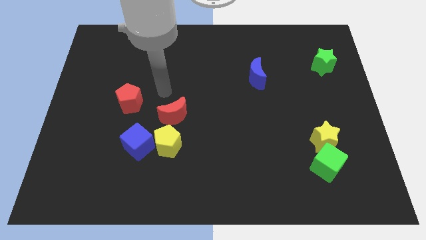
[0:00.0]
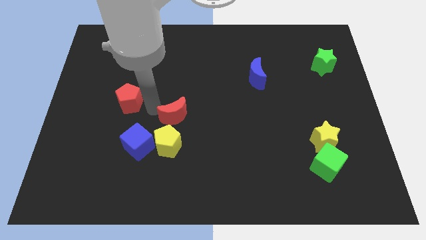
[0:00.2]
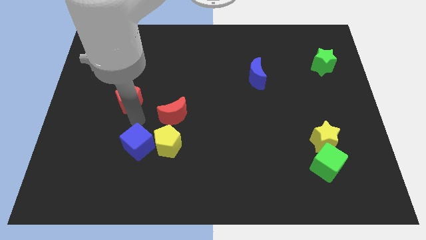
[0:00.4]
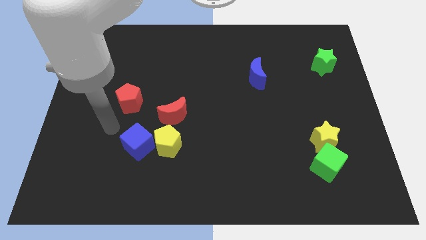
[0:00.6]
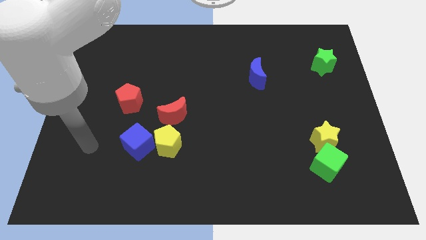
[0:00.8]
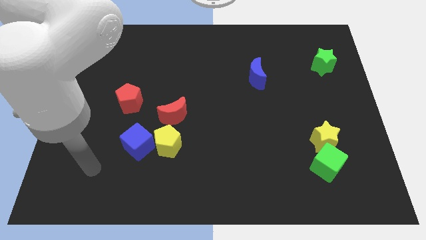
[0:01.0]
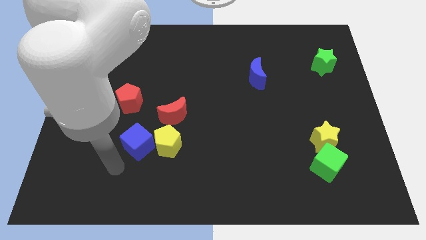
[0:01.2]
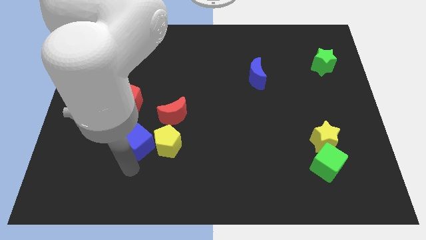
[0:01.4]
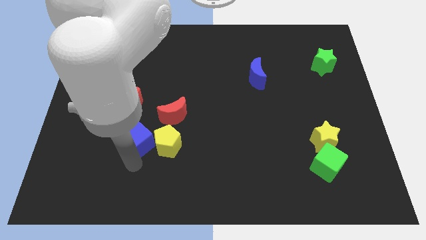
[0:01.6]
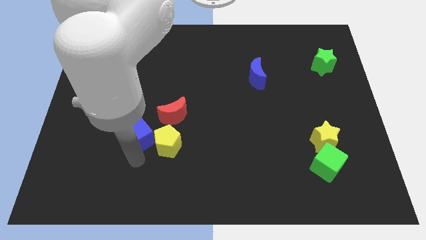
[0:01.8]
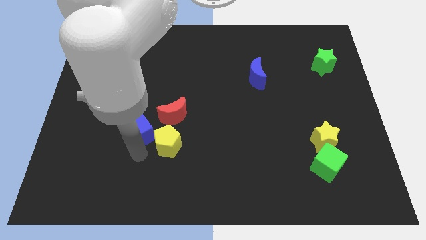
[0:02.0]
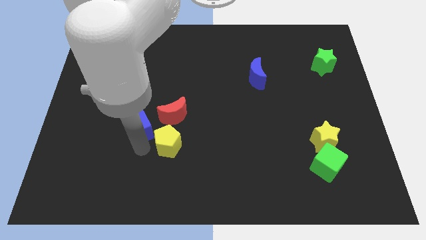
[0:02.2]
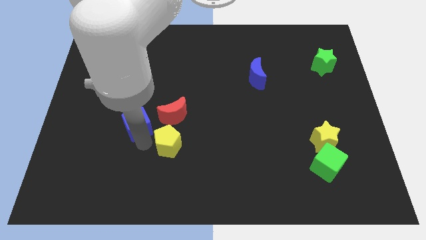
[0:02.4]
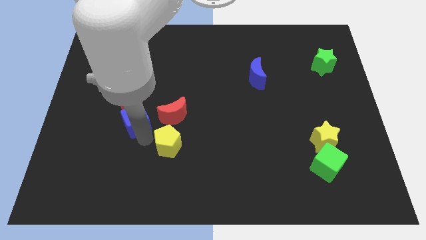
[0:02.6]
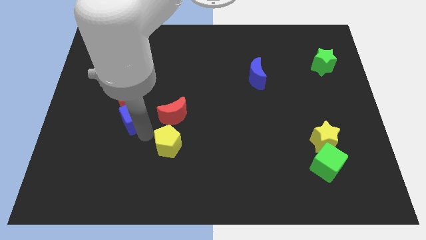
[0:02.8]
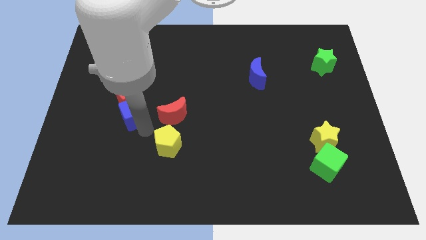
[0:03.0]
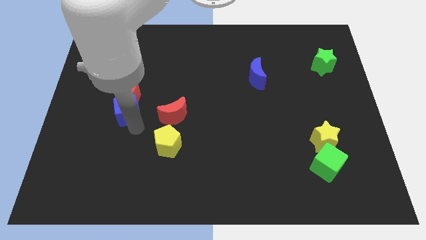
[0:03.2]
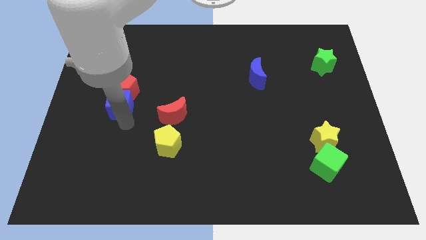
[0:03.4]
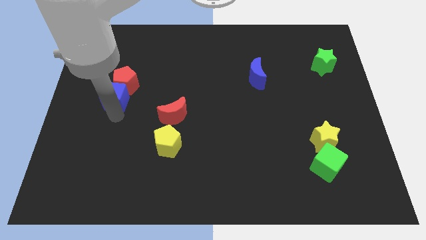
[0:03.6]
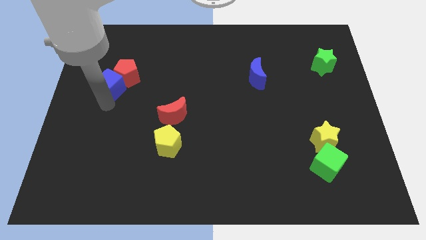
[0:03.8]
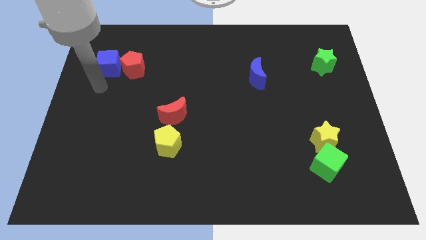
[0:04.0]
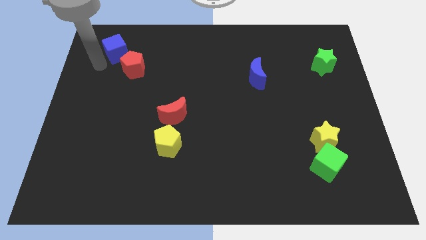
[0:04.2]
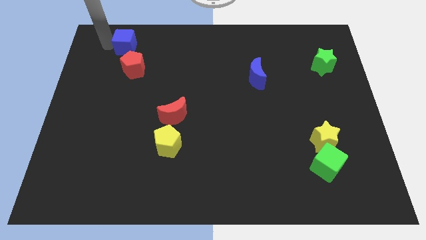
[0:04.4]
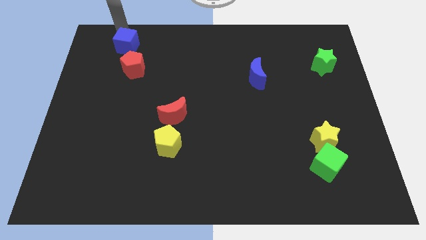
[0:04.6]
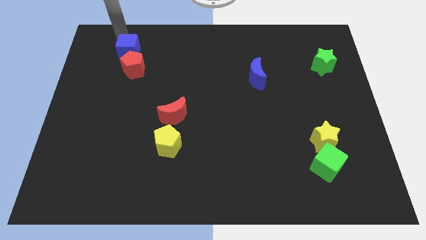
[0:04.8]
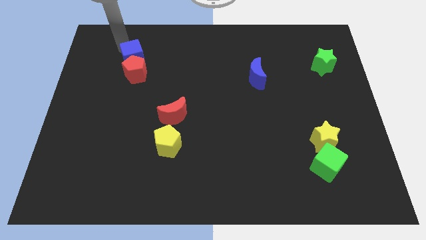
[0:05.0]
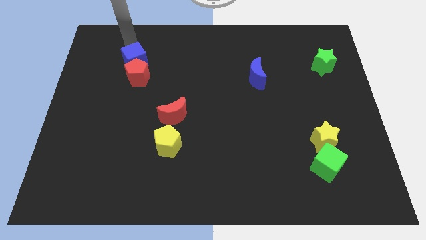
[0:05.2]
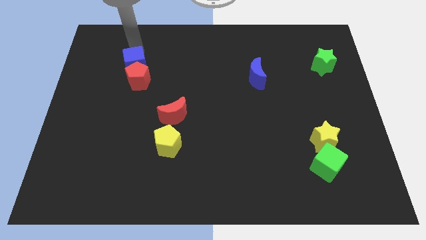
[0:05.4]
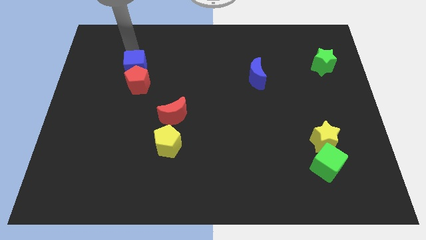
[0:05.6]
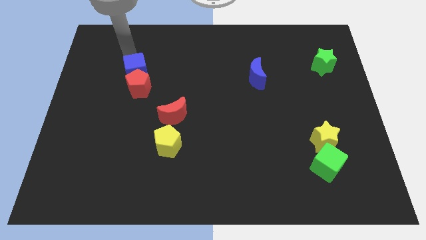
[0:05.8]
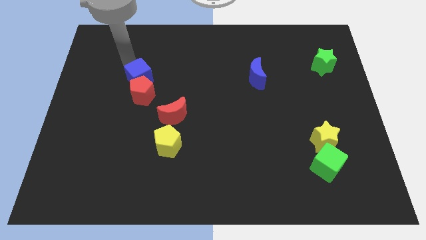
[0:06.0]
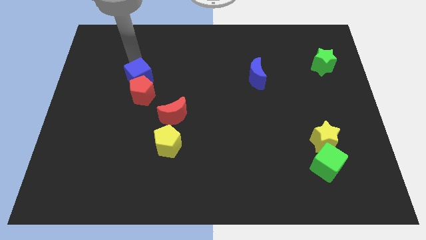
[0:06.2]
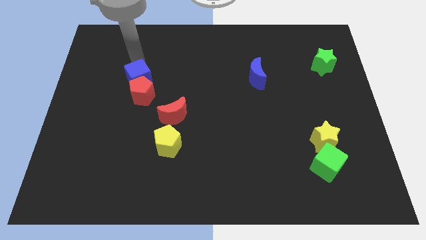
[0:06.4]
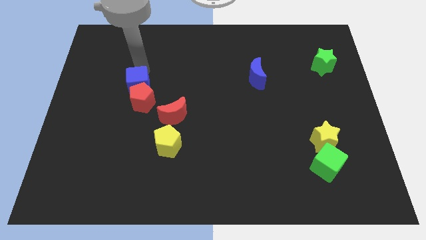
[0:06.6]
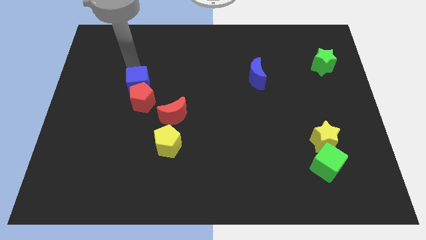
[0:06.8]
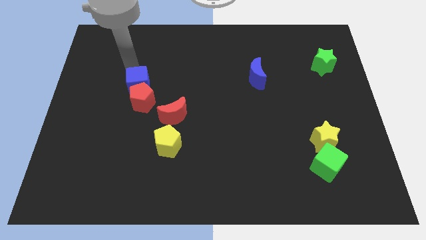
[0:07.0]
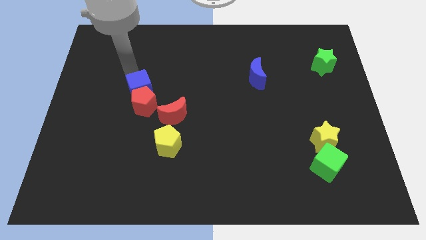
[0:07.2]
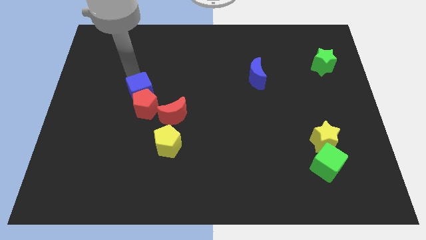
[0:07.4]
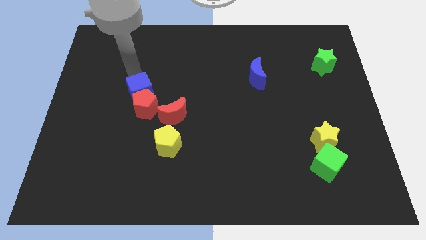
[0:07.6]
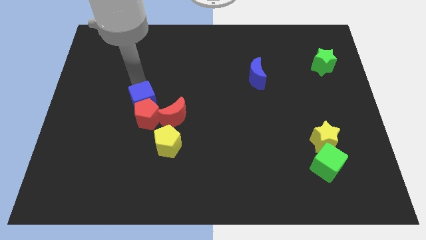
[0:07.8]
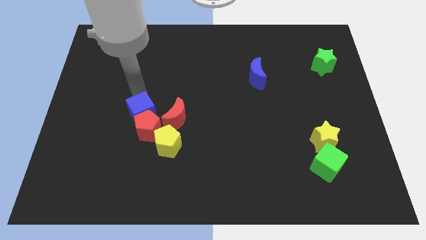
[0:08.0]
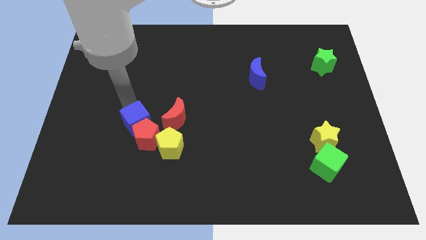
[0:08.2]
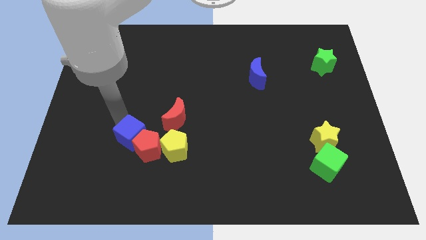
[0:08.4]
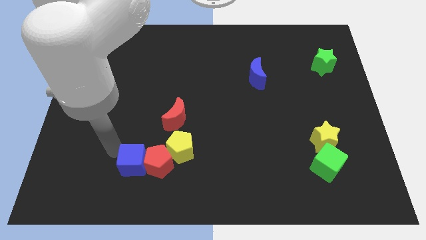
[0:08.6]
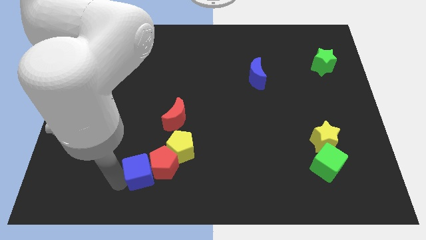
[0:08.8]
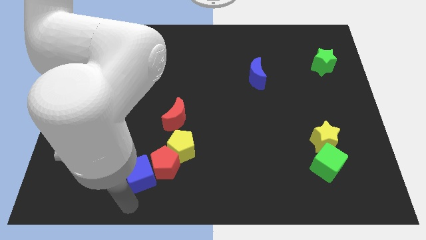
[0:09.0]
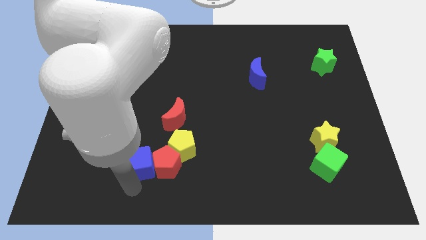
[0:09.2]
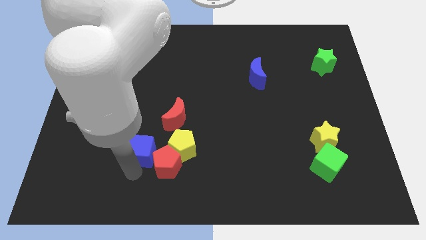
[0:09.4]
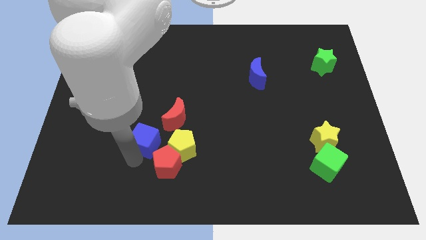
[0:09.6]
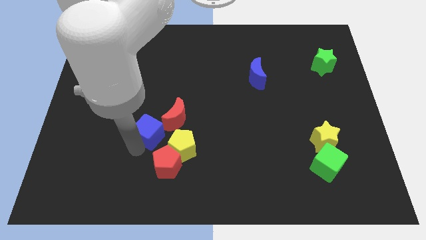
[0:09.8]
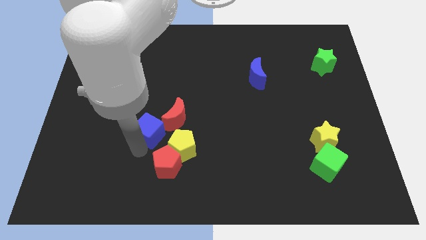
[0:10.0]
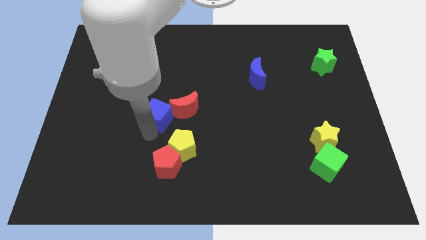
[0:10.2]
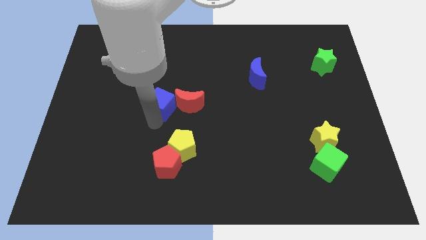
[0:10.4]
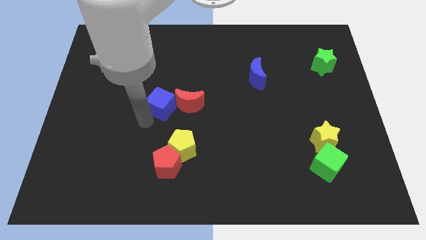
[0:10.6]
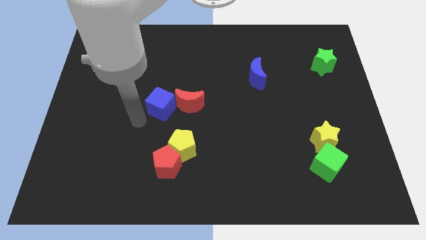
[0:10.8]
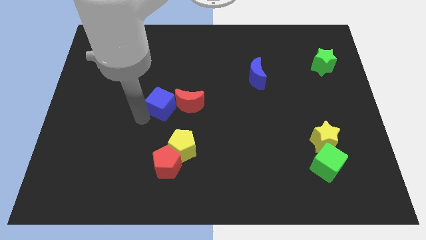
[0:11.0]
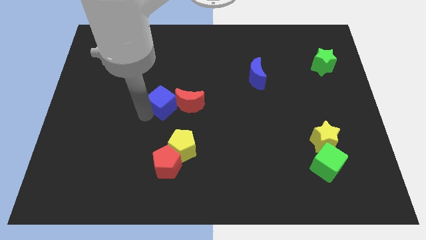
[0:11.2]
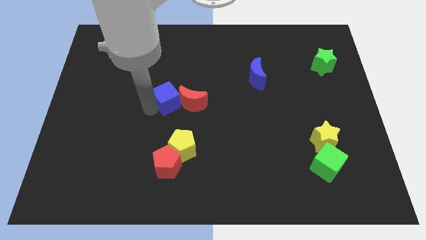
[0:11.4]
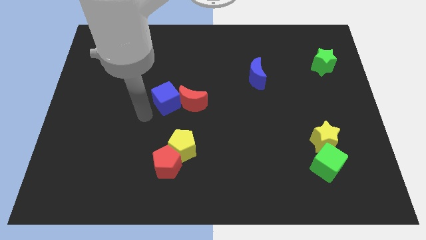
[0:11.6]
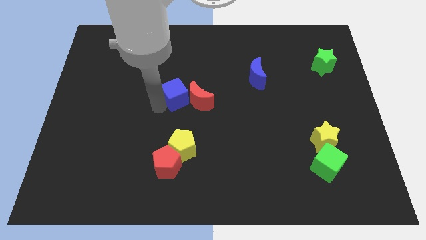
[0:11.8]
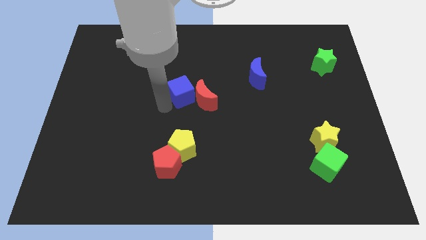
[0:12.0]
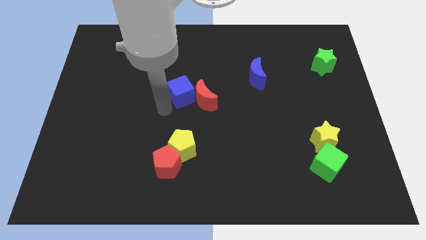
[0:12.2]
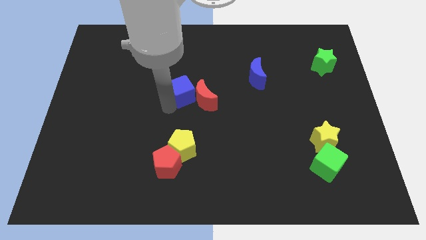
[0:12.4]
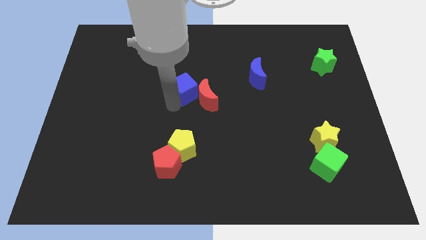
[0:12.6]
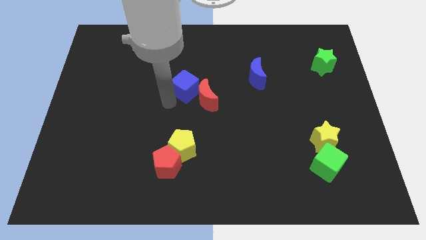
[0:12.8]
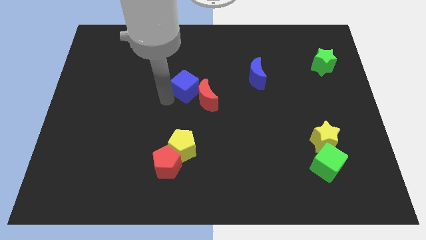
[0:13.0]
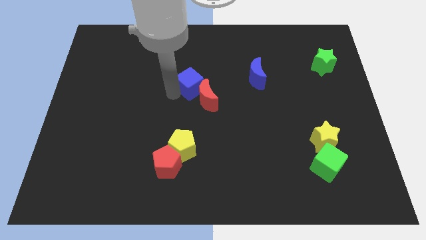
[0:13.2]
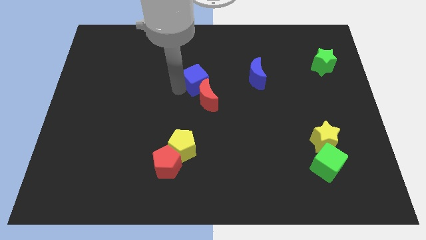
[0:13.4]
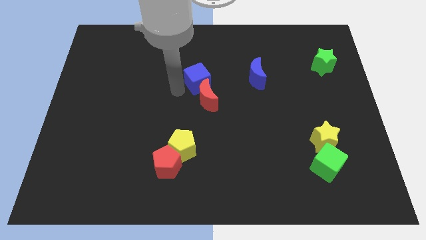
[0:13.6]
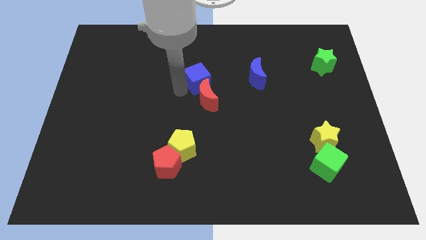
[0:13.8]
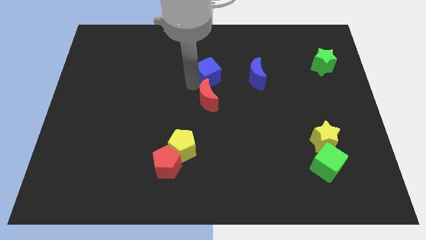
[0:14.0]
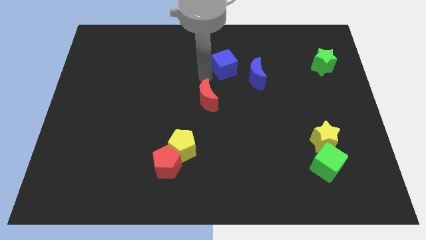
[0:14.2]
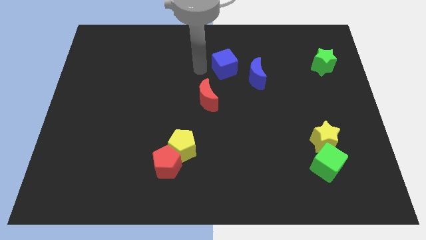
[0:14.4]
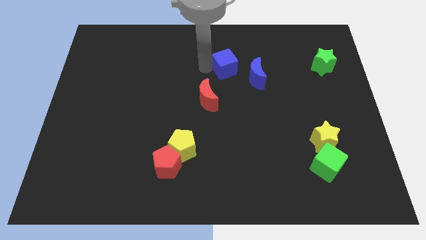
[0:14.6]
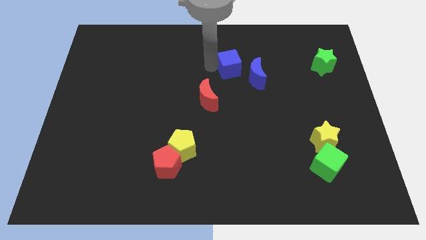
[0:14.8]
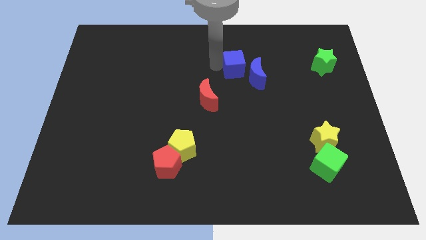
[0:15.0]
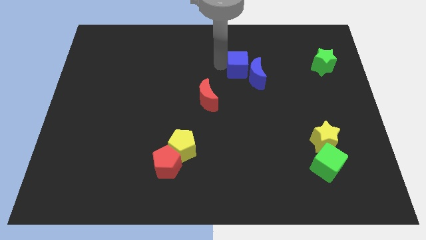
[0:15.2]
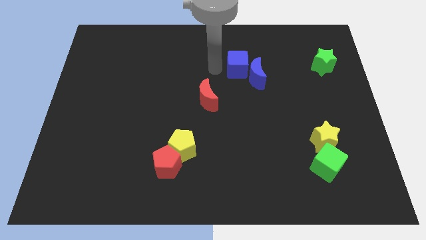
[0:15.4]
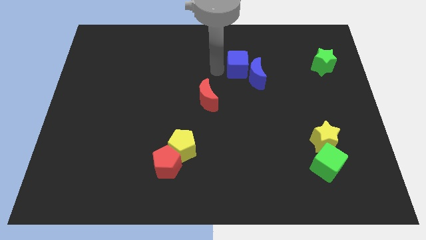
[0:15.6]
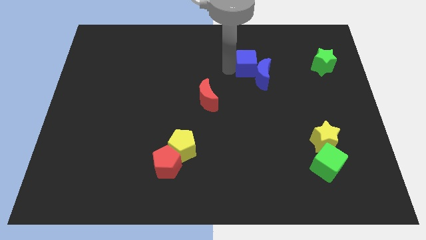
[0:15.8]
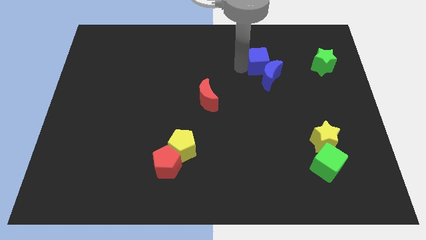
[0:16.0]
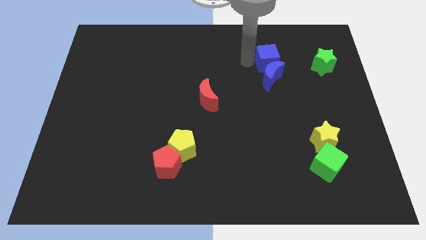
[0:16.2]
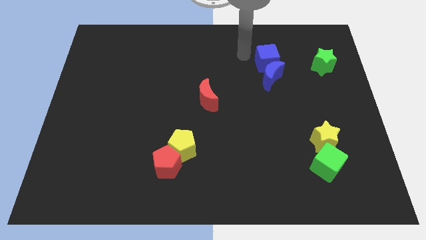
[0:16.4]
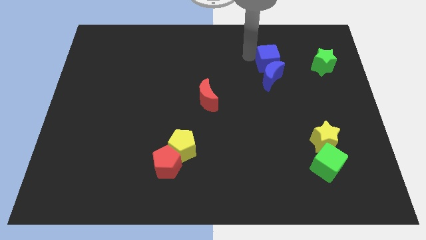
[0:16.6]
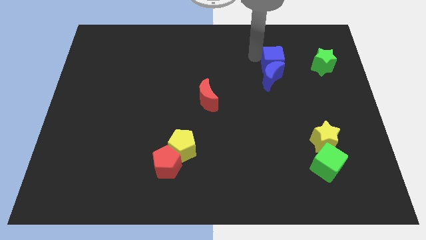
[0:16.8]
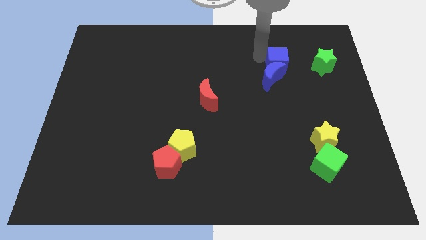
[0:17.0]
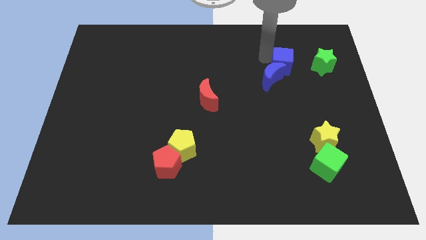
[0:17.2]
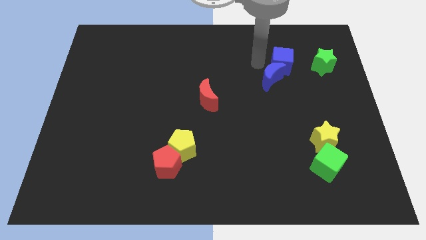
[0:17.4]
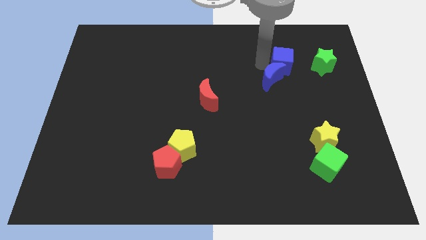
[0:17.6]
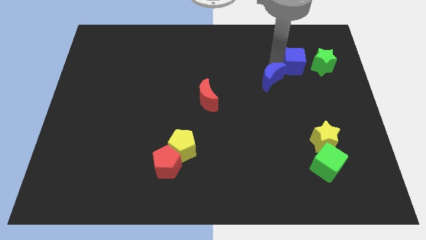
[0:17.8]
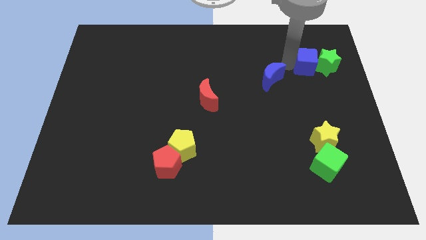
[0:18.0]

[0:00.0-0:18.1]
slide the blue cube towards the green star
